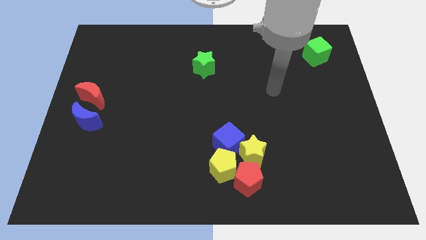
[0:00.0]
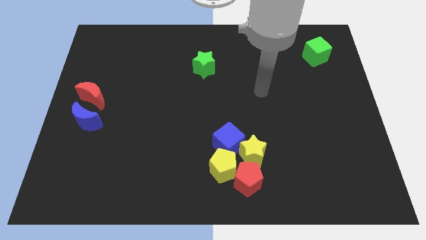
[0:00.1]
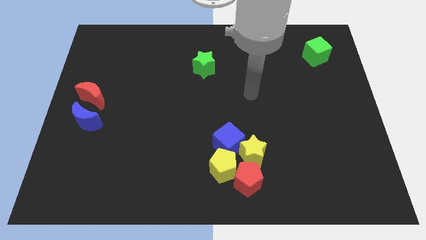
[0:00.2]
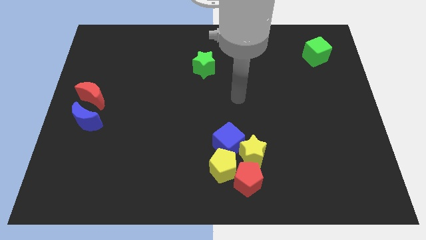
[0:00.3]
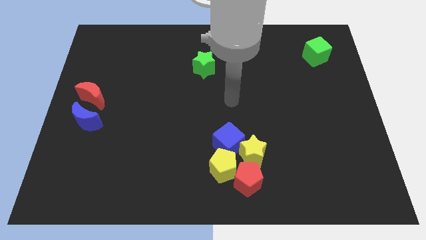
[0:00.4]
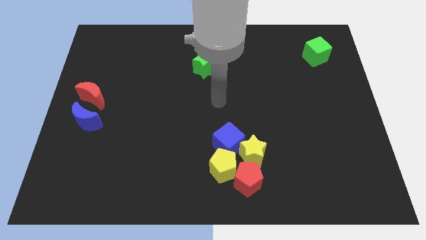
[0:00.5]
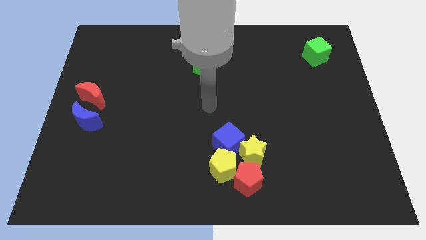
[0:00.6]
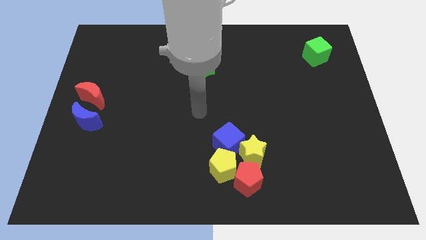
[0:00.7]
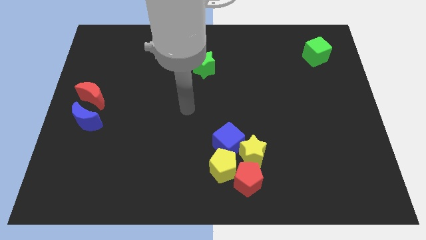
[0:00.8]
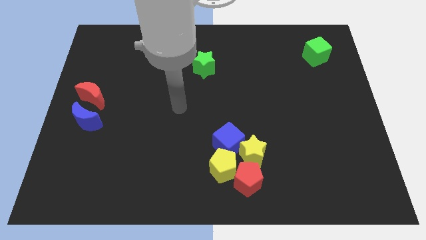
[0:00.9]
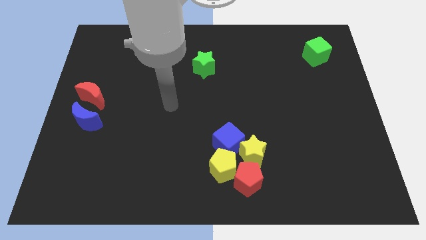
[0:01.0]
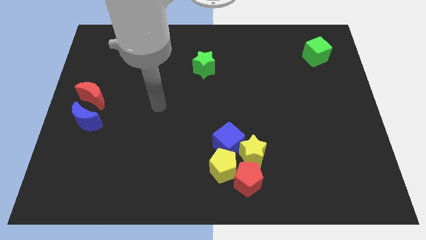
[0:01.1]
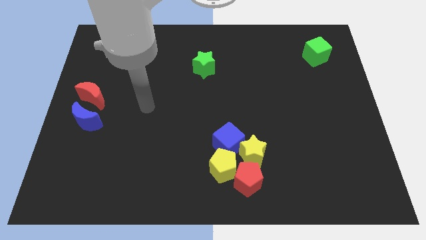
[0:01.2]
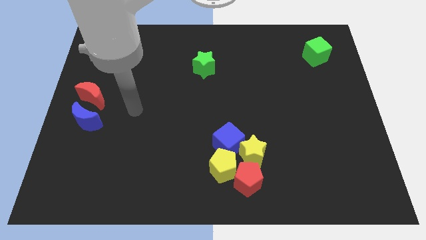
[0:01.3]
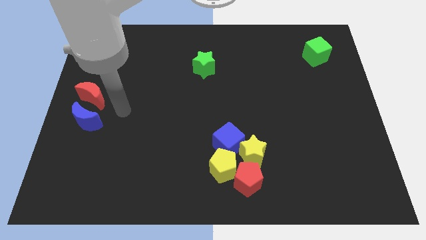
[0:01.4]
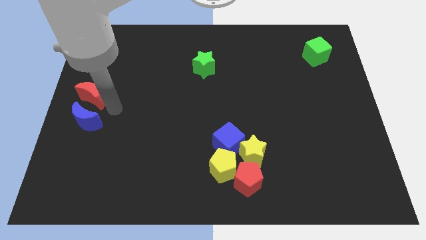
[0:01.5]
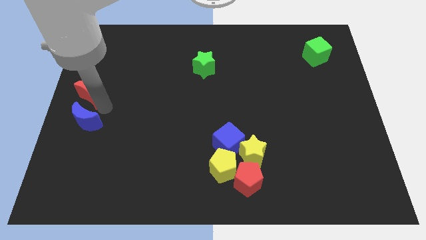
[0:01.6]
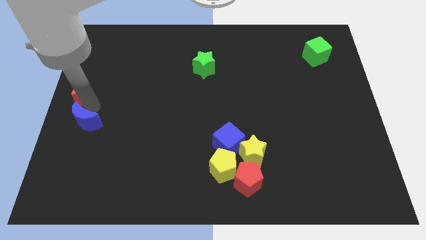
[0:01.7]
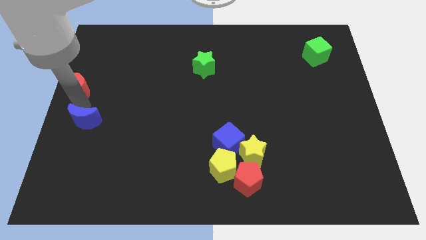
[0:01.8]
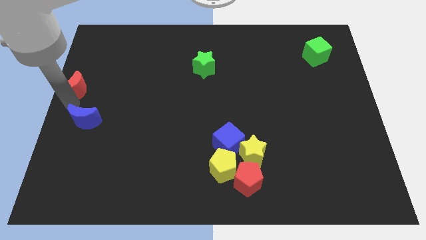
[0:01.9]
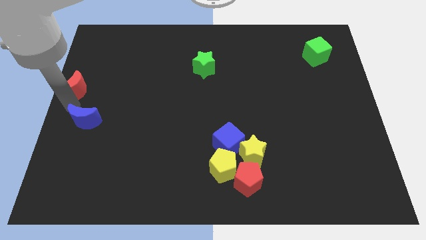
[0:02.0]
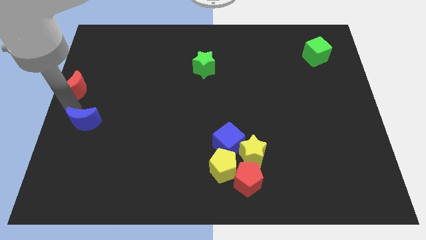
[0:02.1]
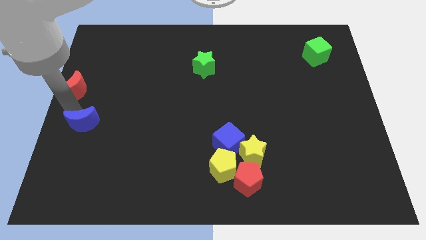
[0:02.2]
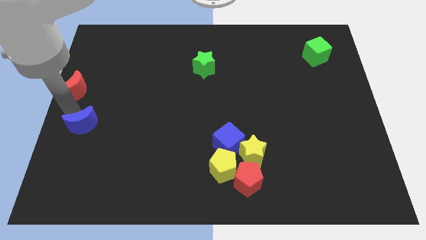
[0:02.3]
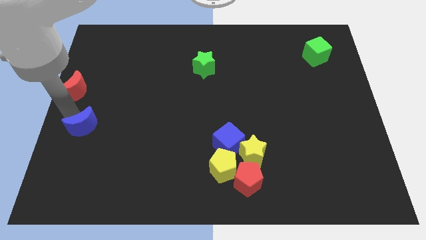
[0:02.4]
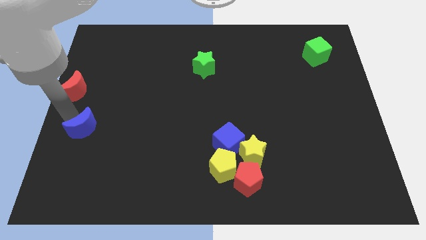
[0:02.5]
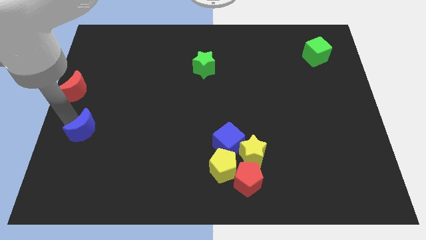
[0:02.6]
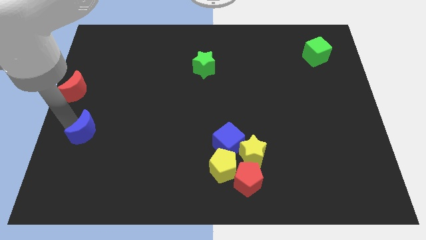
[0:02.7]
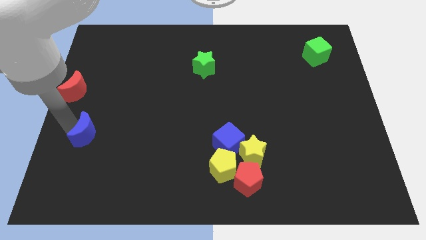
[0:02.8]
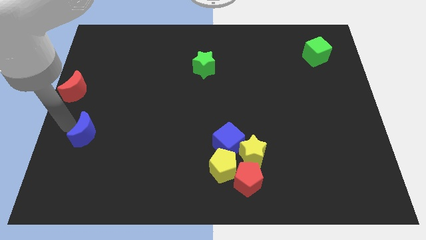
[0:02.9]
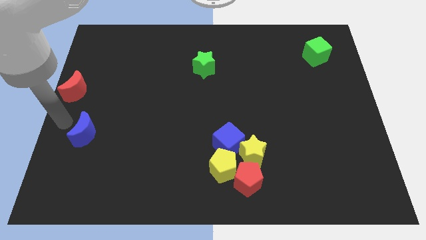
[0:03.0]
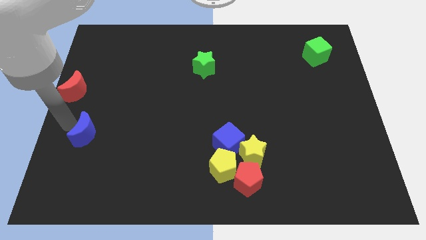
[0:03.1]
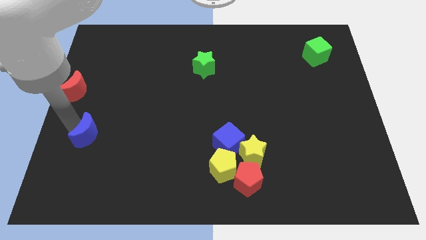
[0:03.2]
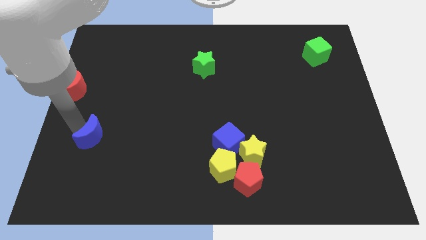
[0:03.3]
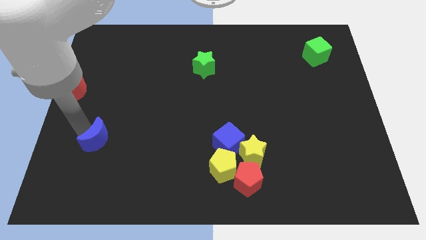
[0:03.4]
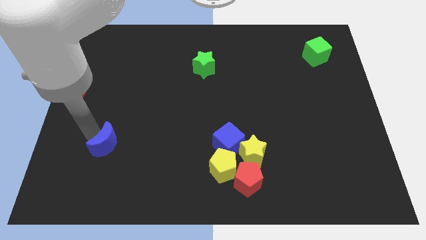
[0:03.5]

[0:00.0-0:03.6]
slightly move the blue moon diagonally down and to the right

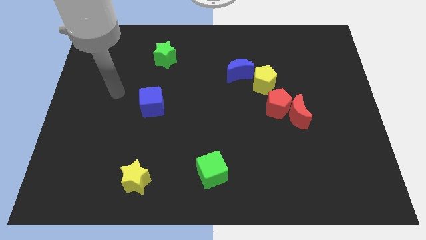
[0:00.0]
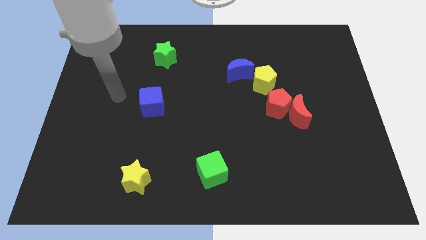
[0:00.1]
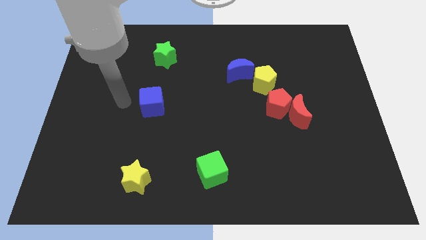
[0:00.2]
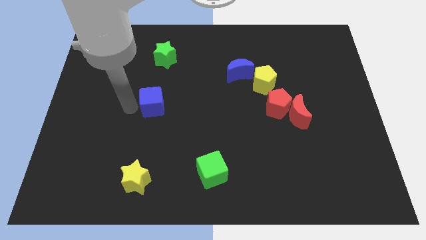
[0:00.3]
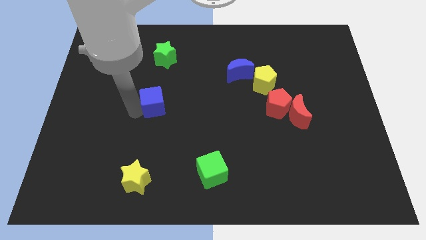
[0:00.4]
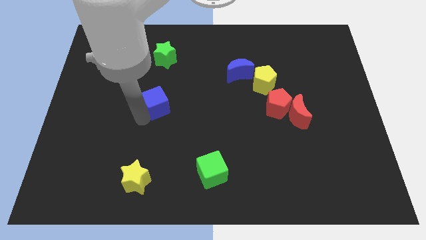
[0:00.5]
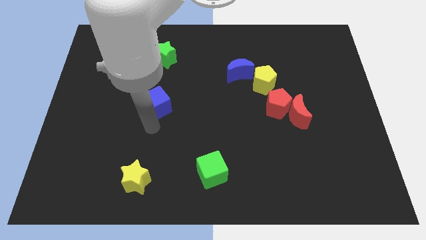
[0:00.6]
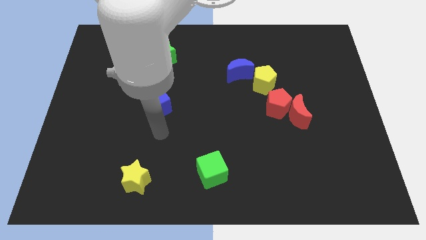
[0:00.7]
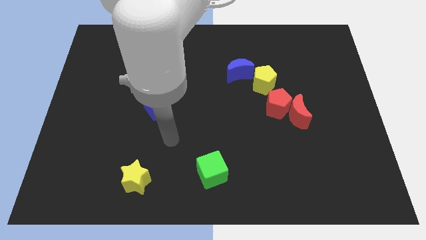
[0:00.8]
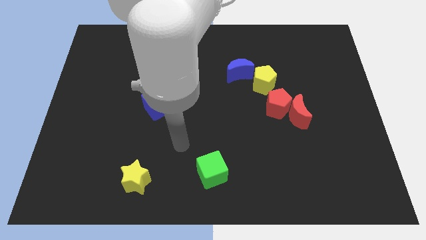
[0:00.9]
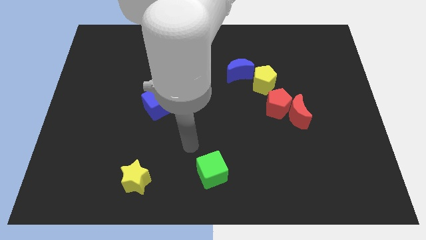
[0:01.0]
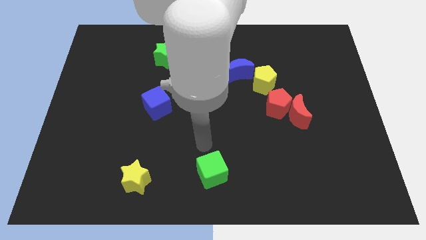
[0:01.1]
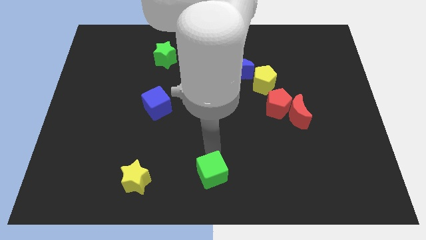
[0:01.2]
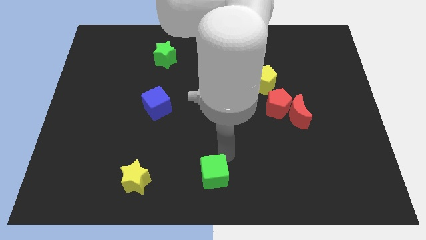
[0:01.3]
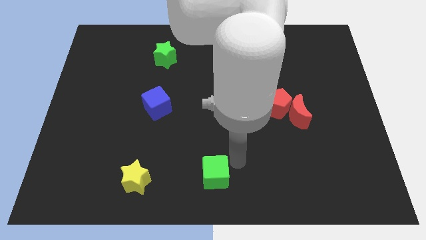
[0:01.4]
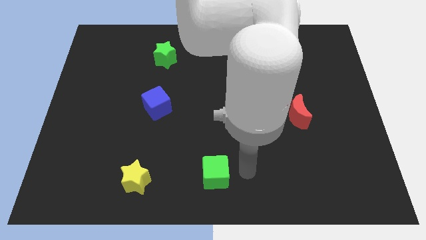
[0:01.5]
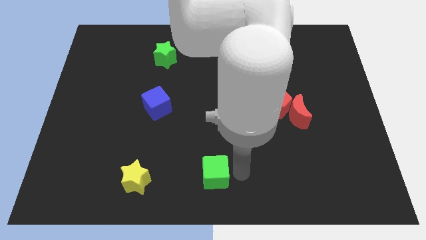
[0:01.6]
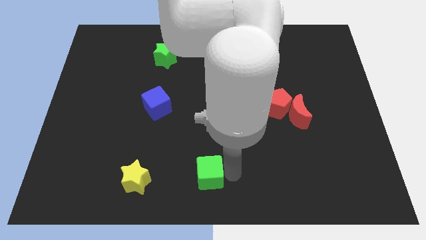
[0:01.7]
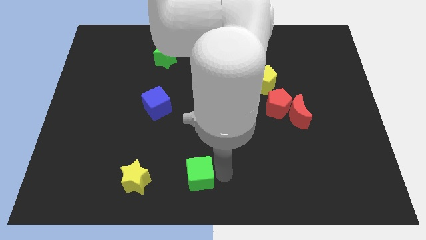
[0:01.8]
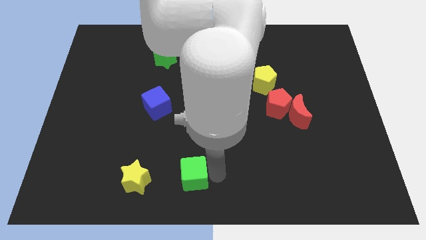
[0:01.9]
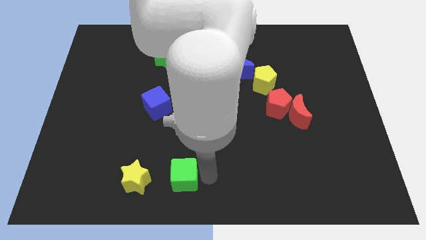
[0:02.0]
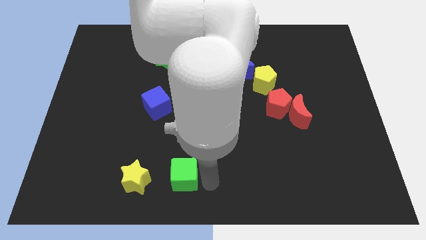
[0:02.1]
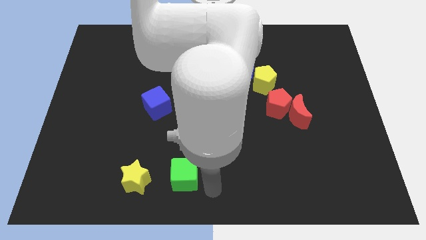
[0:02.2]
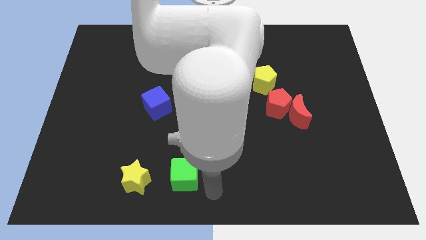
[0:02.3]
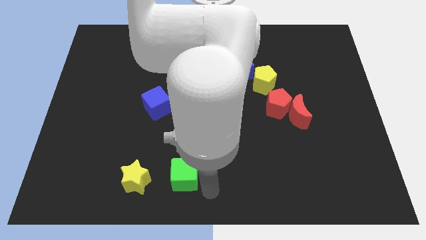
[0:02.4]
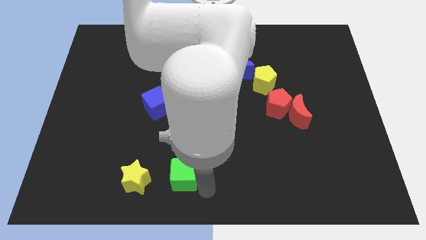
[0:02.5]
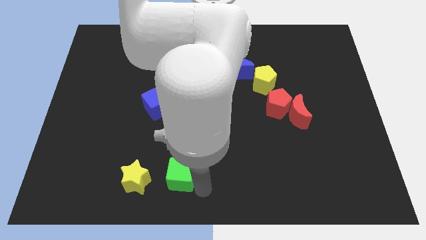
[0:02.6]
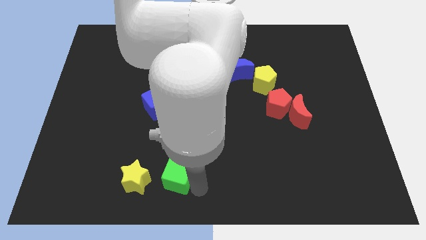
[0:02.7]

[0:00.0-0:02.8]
slide the green cube somewhat left

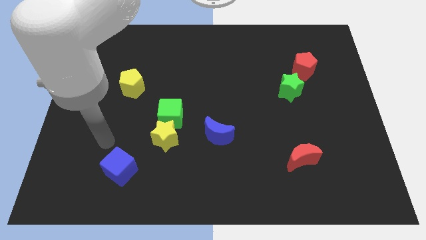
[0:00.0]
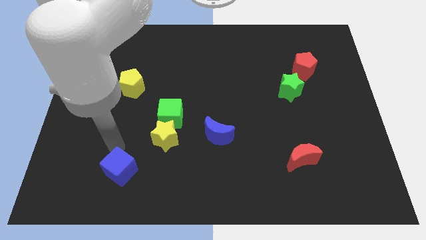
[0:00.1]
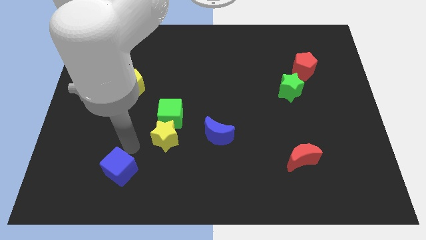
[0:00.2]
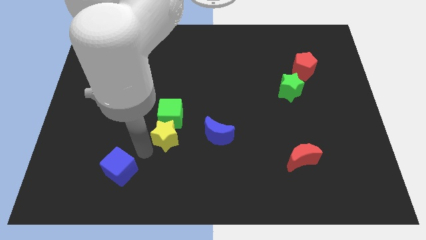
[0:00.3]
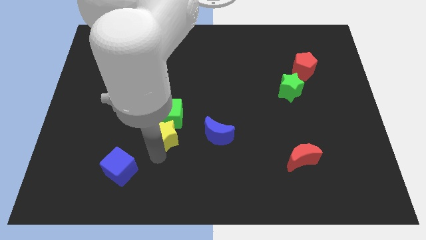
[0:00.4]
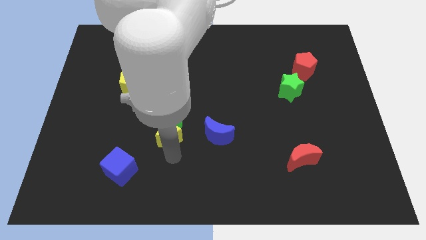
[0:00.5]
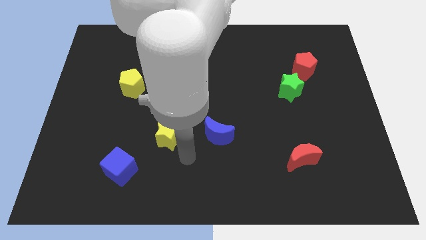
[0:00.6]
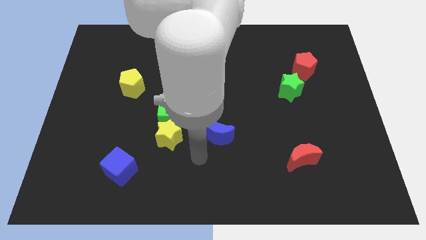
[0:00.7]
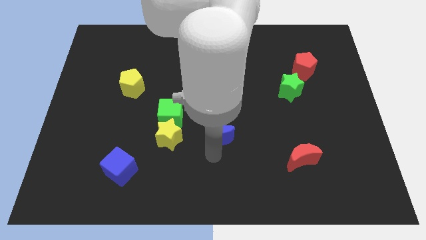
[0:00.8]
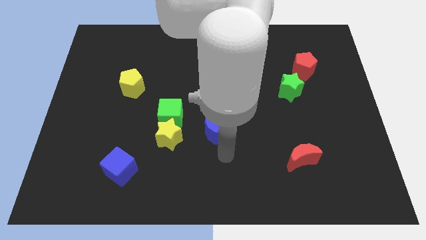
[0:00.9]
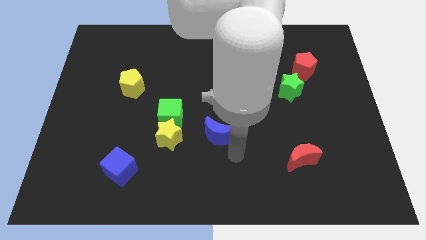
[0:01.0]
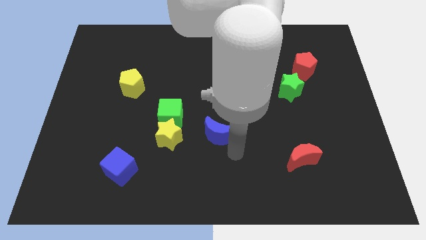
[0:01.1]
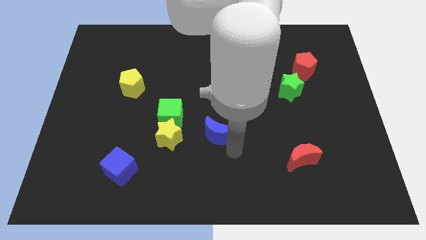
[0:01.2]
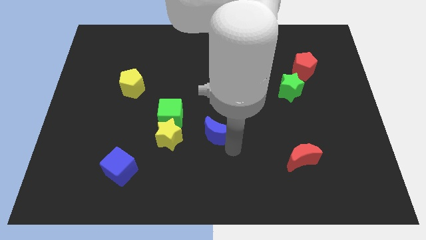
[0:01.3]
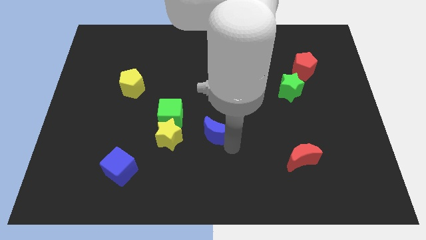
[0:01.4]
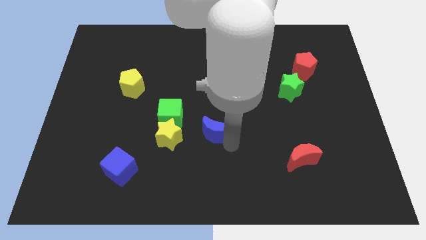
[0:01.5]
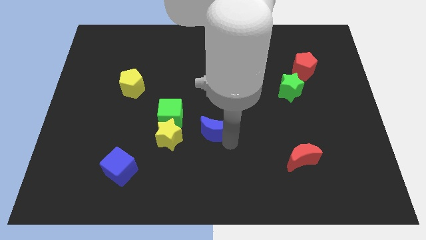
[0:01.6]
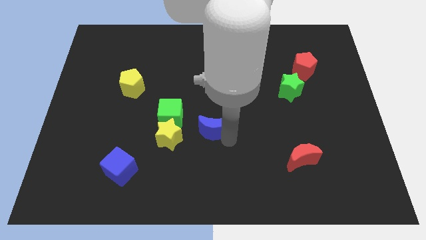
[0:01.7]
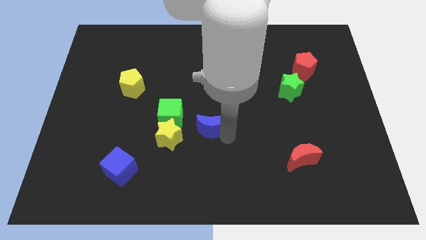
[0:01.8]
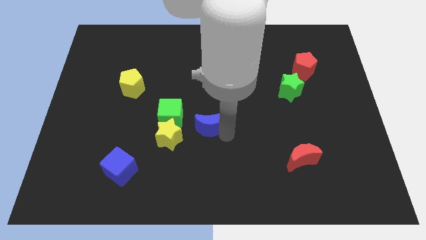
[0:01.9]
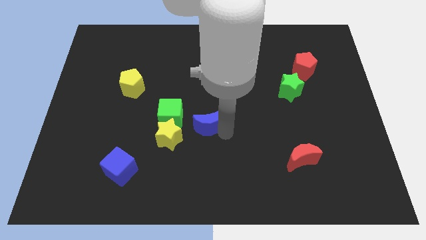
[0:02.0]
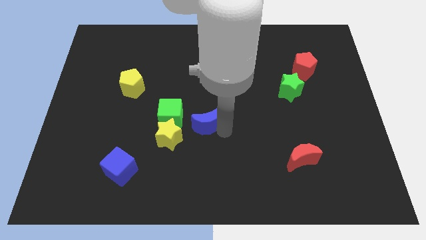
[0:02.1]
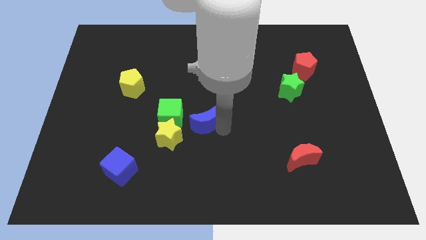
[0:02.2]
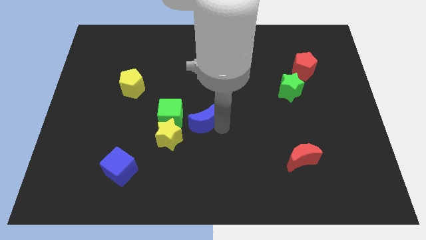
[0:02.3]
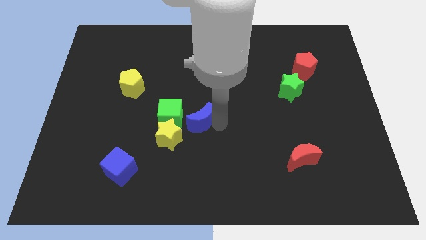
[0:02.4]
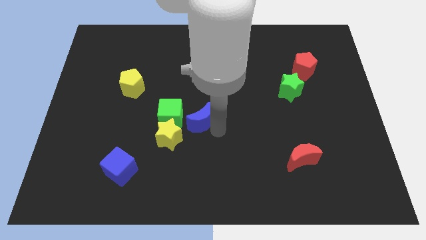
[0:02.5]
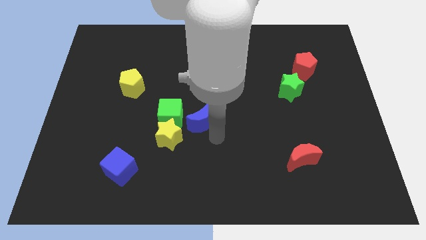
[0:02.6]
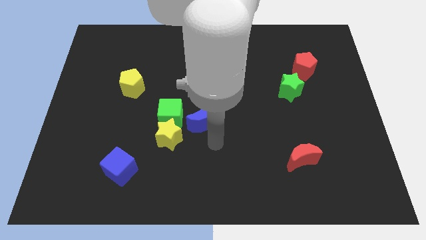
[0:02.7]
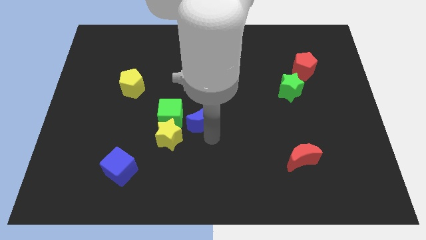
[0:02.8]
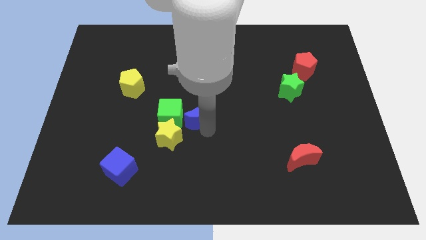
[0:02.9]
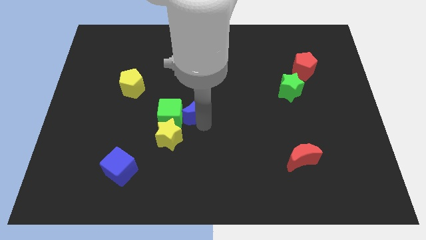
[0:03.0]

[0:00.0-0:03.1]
slide the blue moon a little bit upwards and to the left diagonally
